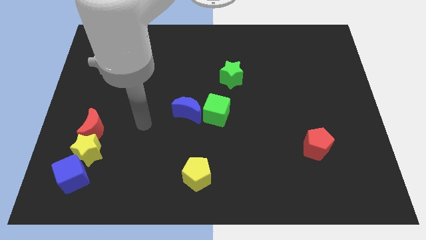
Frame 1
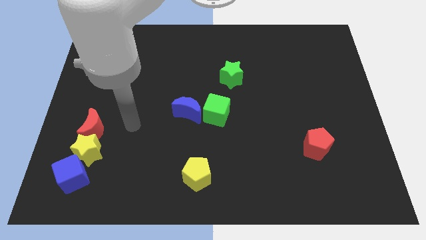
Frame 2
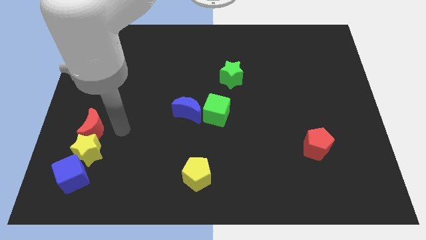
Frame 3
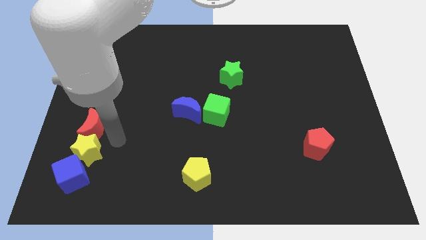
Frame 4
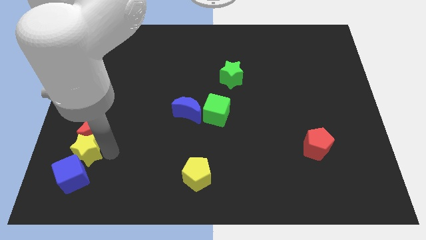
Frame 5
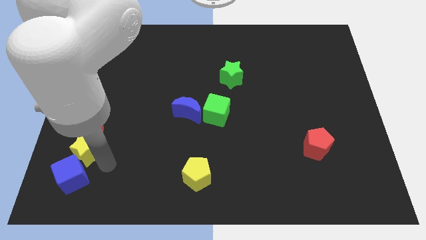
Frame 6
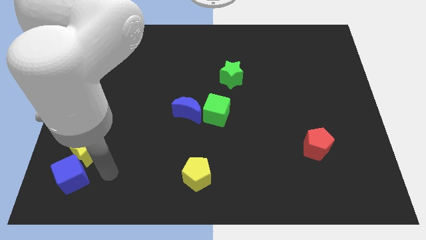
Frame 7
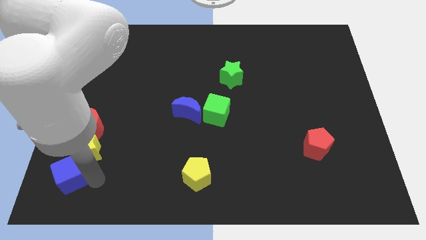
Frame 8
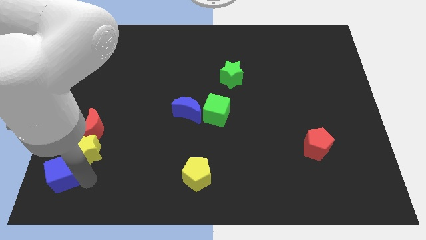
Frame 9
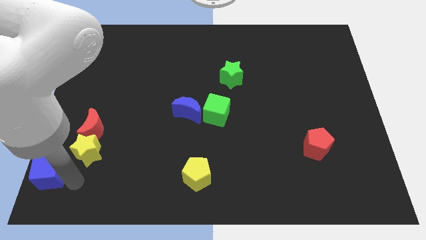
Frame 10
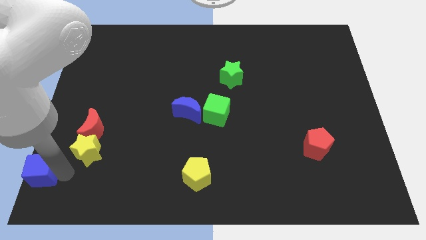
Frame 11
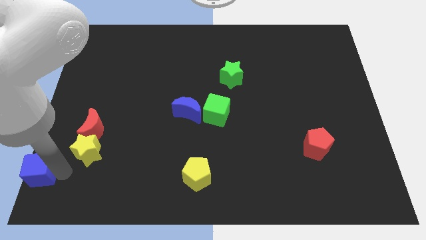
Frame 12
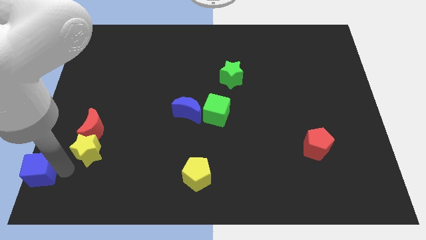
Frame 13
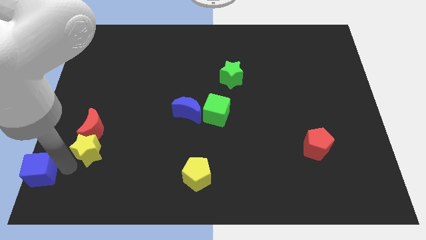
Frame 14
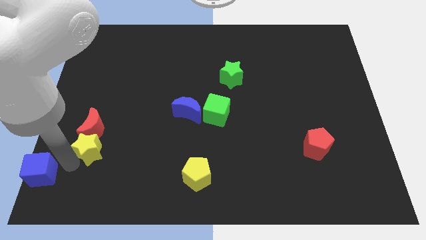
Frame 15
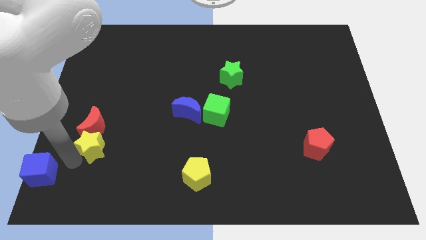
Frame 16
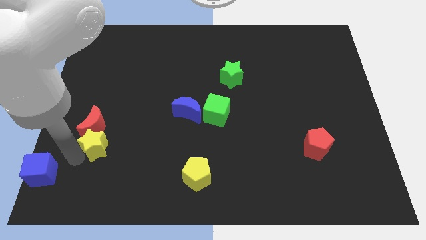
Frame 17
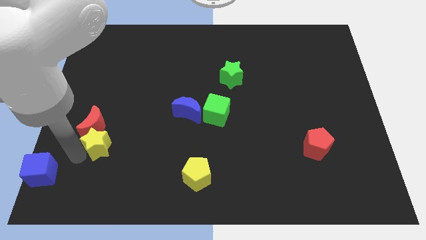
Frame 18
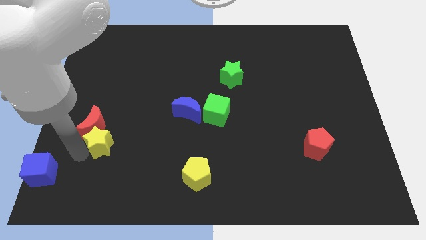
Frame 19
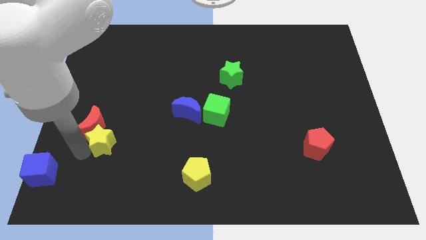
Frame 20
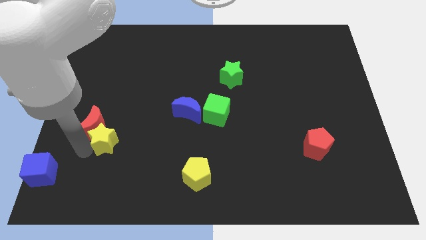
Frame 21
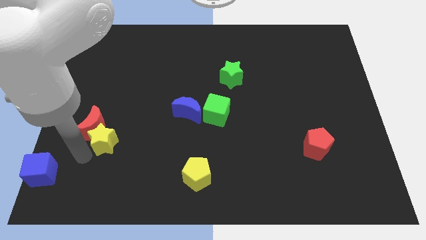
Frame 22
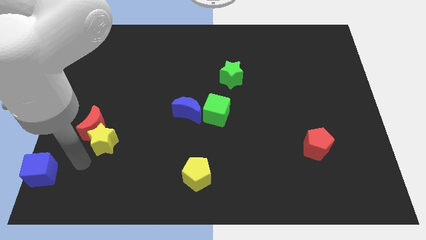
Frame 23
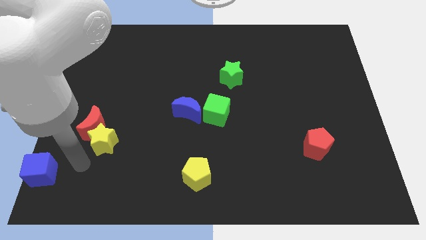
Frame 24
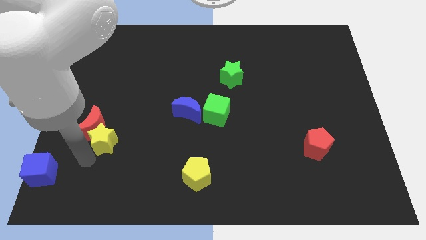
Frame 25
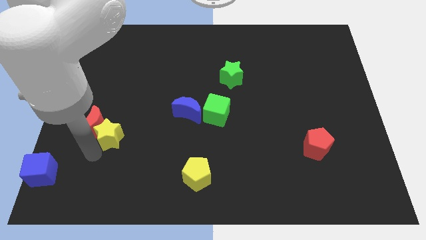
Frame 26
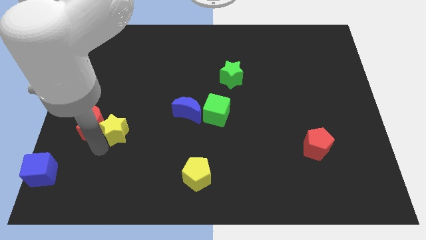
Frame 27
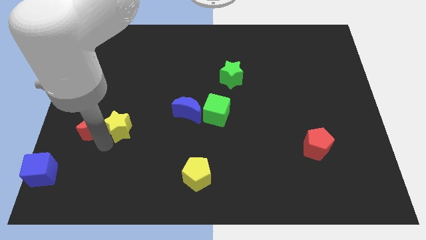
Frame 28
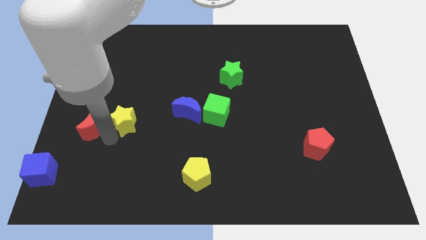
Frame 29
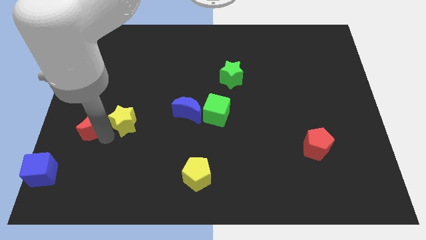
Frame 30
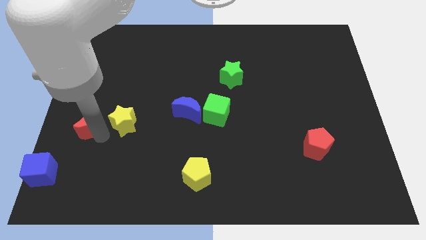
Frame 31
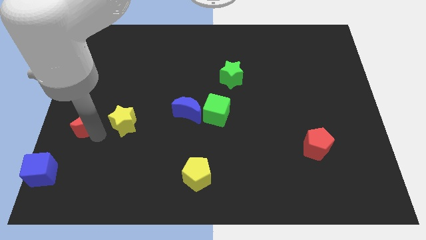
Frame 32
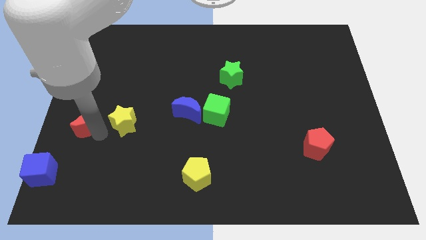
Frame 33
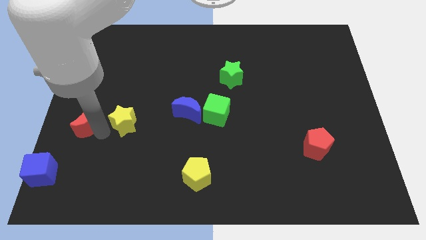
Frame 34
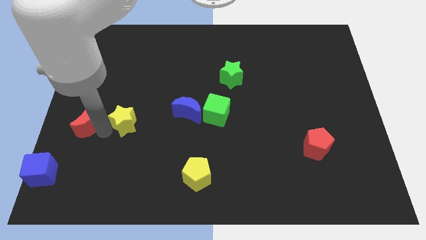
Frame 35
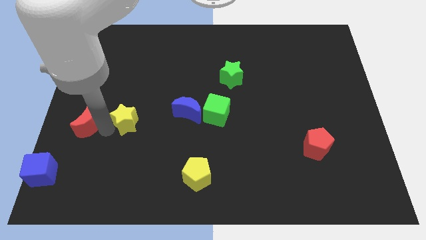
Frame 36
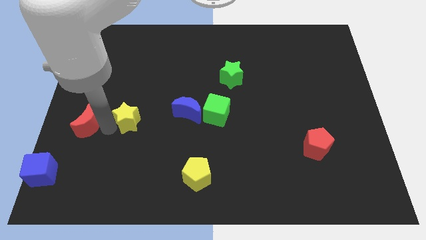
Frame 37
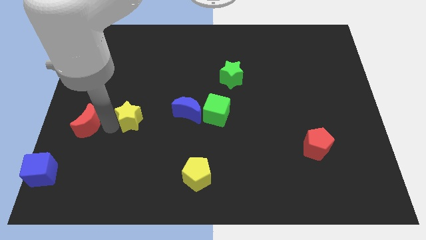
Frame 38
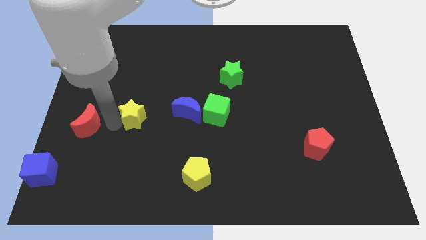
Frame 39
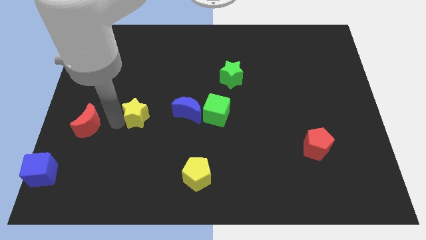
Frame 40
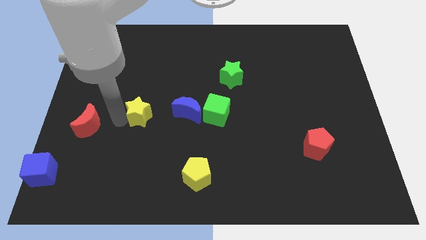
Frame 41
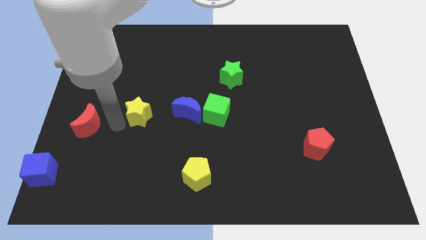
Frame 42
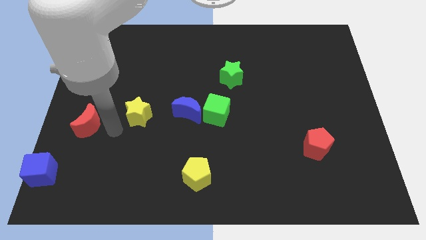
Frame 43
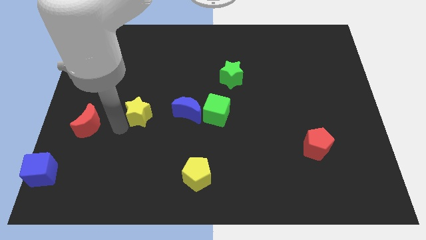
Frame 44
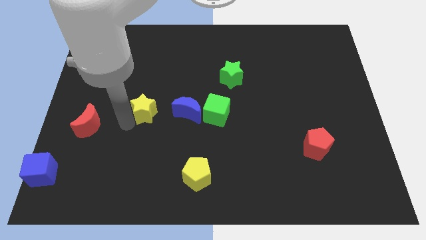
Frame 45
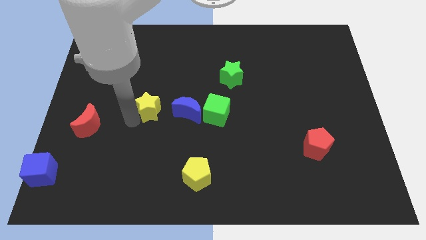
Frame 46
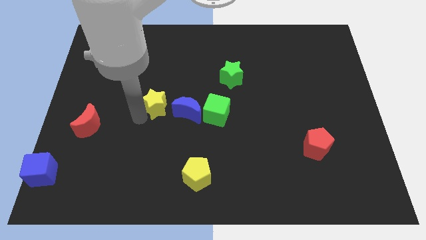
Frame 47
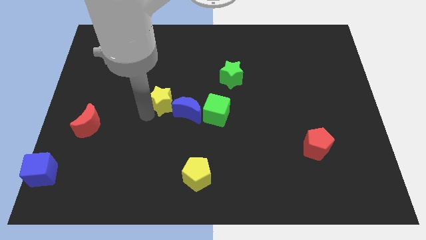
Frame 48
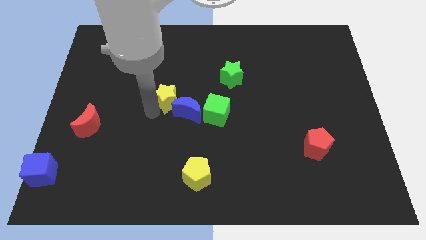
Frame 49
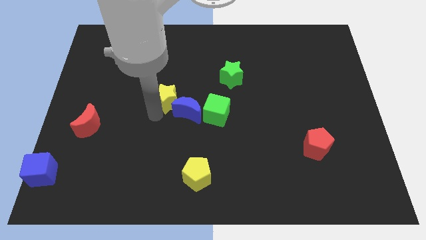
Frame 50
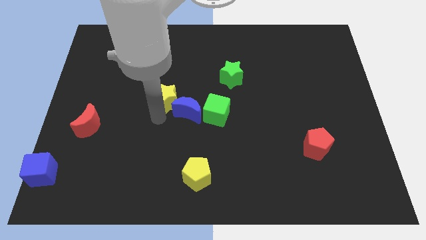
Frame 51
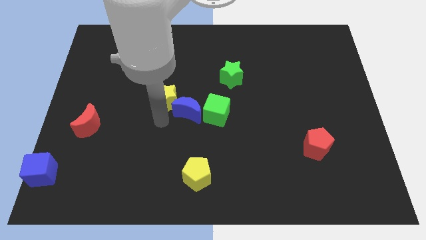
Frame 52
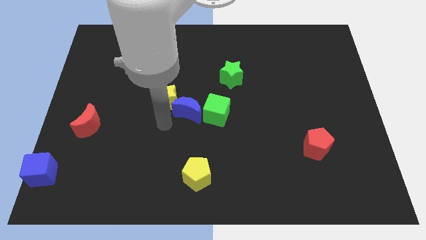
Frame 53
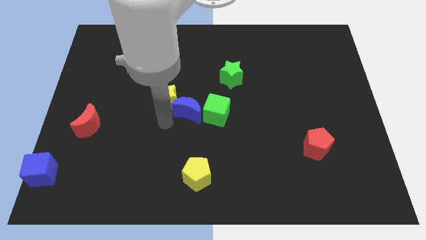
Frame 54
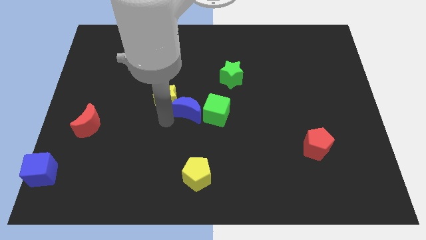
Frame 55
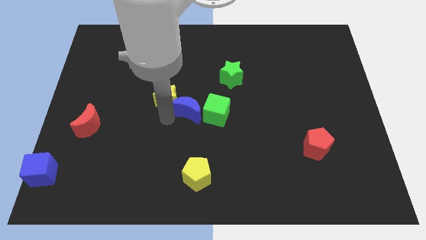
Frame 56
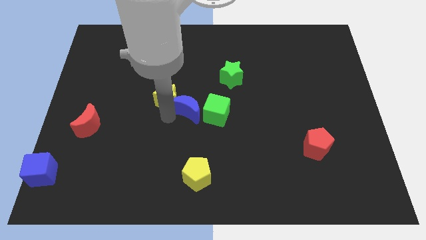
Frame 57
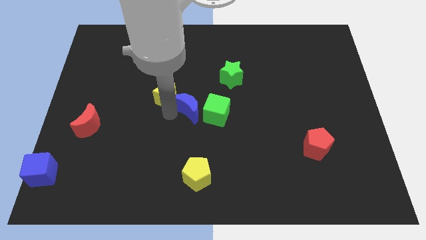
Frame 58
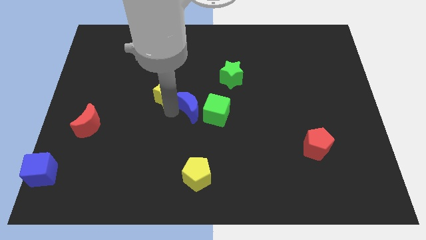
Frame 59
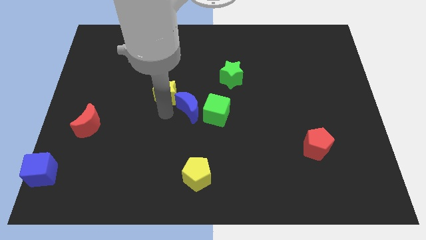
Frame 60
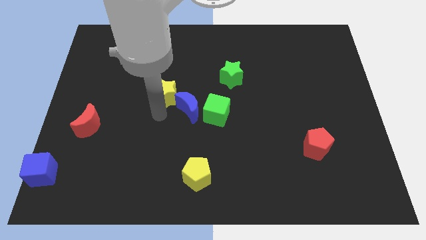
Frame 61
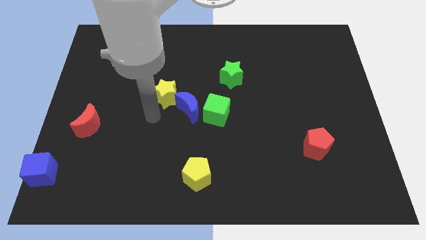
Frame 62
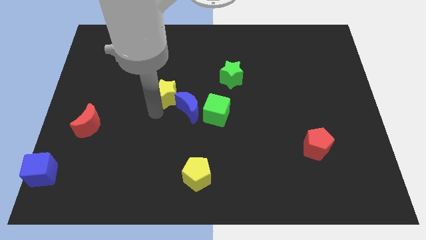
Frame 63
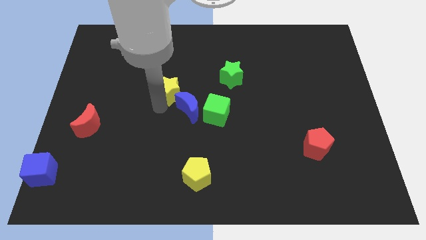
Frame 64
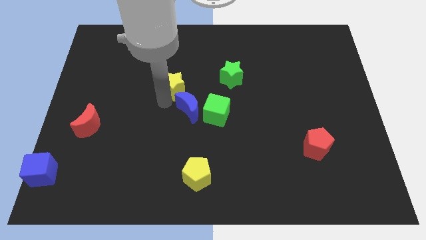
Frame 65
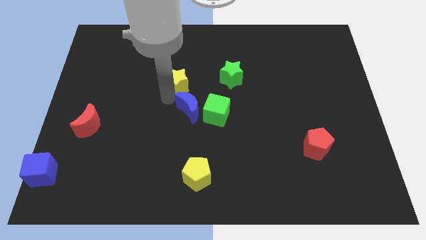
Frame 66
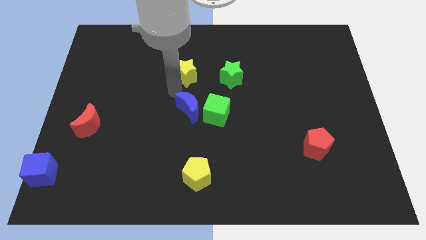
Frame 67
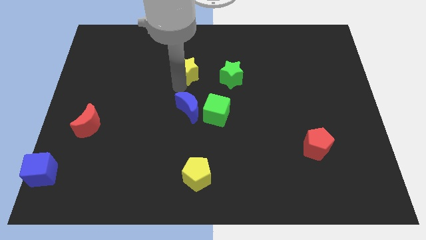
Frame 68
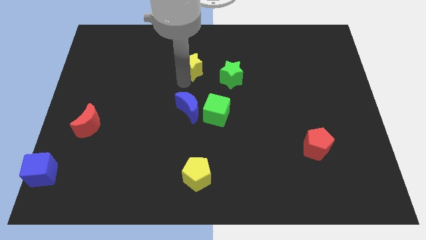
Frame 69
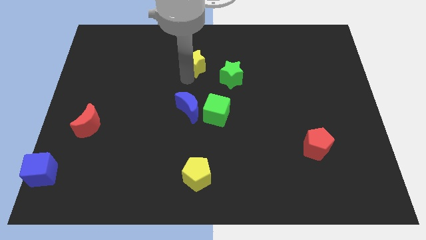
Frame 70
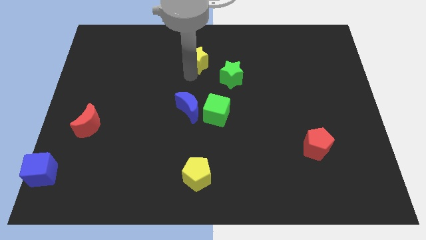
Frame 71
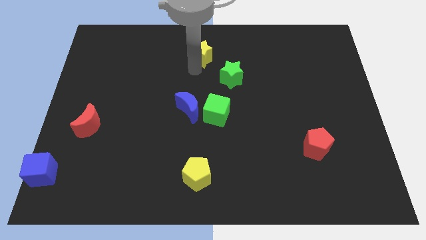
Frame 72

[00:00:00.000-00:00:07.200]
put the yellow star to the towards your base
